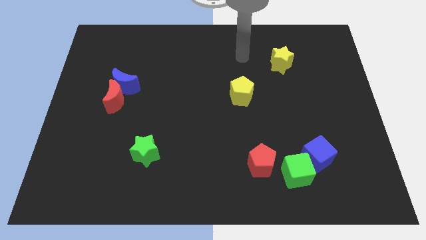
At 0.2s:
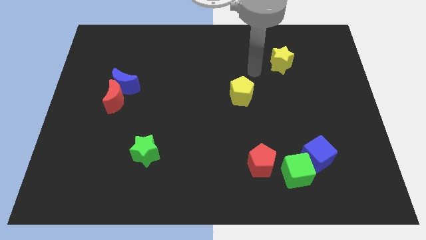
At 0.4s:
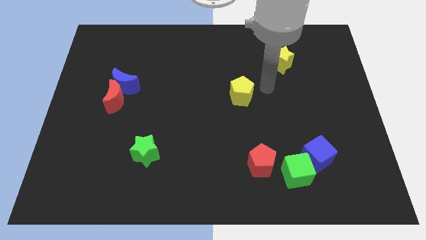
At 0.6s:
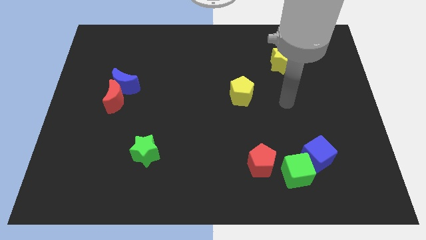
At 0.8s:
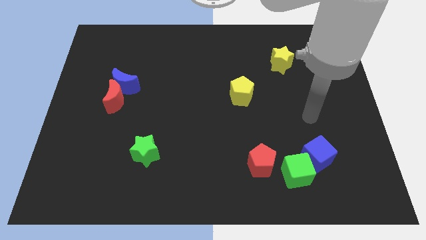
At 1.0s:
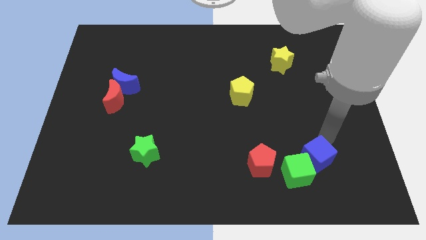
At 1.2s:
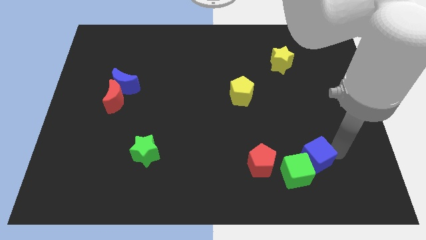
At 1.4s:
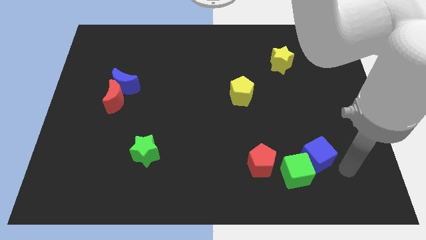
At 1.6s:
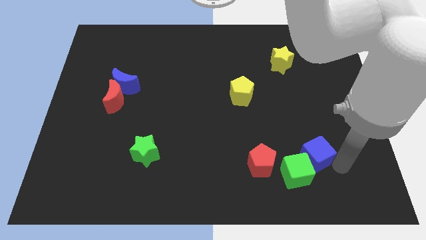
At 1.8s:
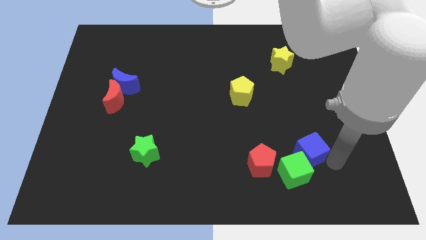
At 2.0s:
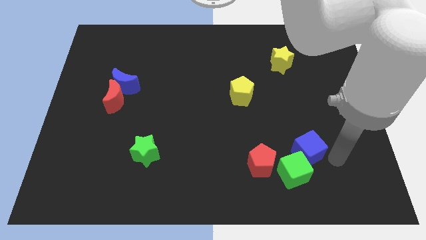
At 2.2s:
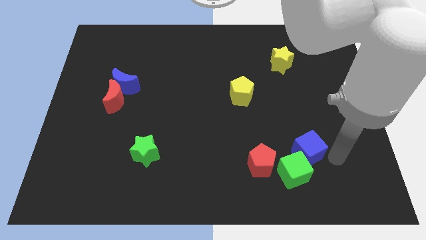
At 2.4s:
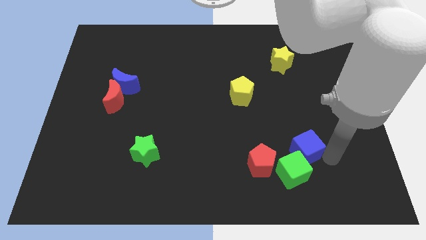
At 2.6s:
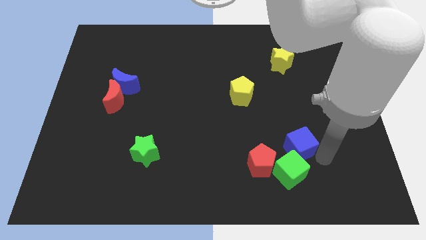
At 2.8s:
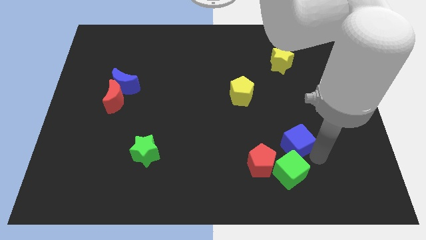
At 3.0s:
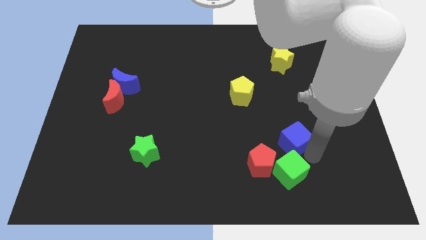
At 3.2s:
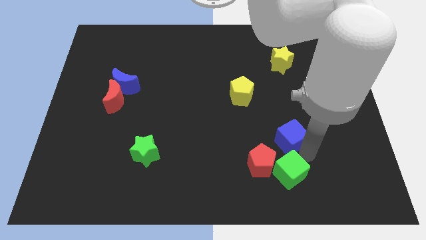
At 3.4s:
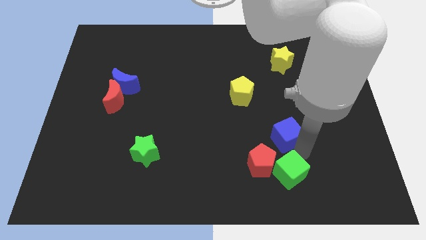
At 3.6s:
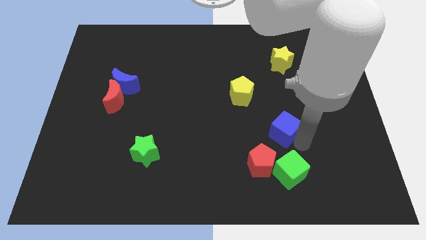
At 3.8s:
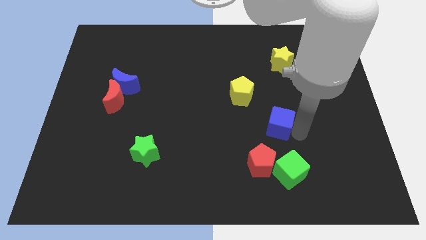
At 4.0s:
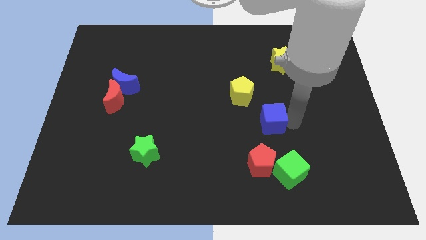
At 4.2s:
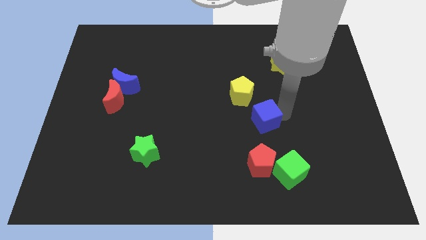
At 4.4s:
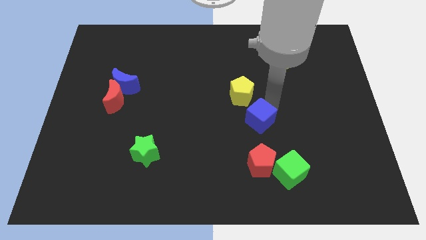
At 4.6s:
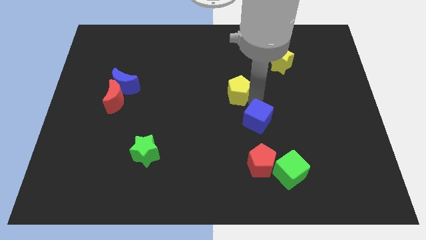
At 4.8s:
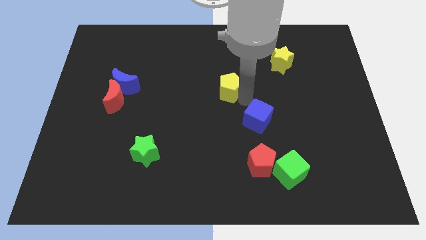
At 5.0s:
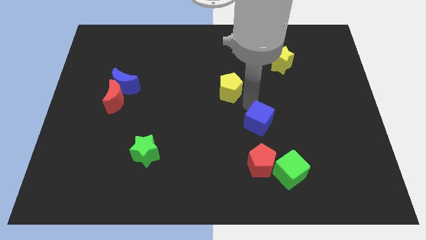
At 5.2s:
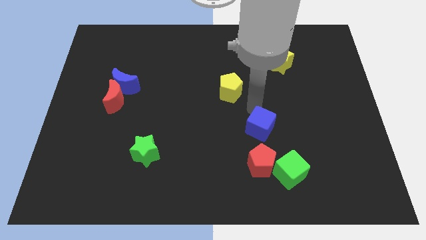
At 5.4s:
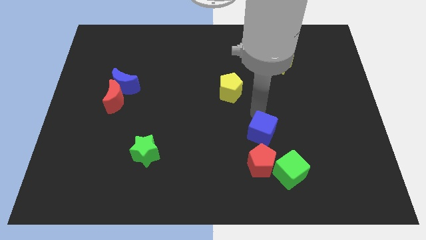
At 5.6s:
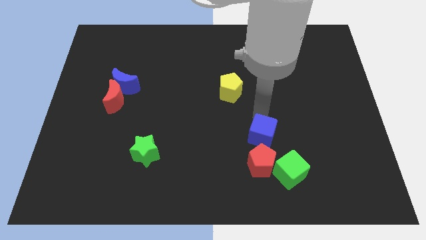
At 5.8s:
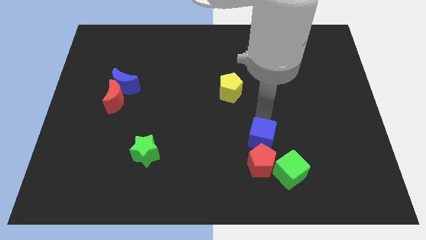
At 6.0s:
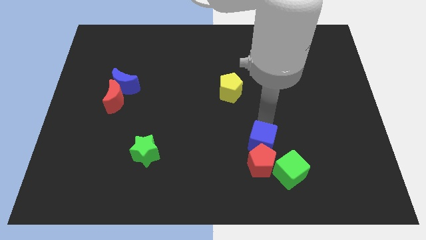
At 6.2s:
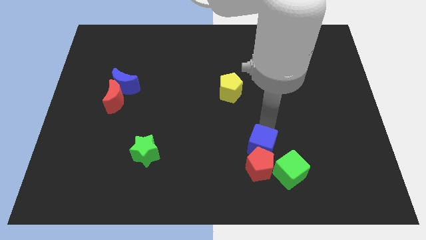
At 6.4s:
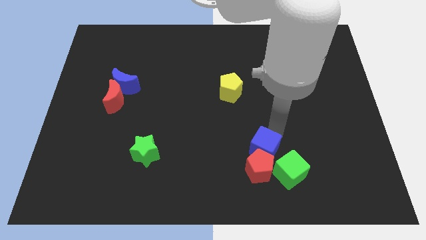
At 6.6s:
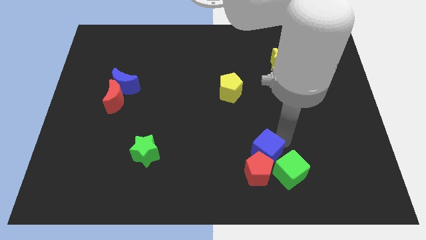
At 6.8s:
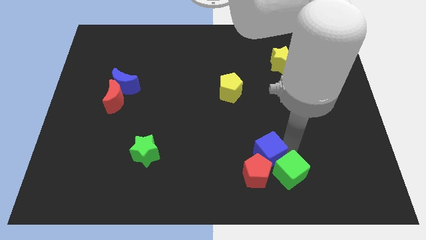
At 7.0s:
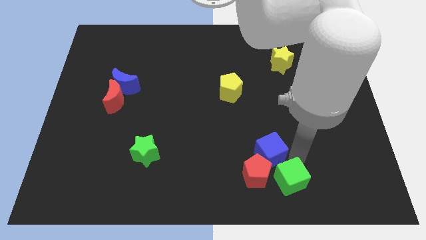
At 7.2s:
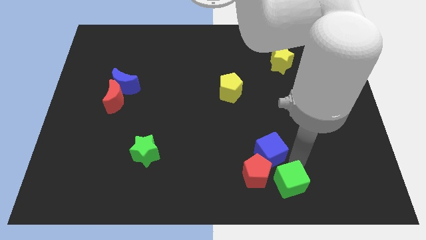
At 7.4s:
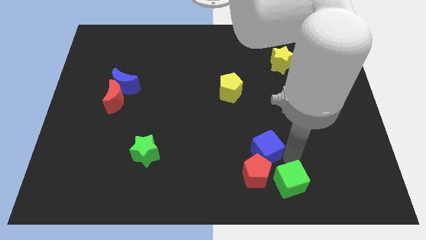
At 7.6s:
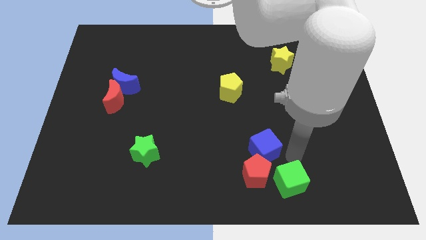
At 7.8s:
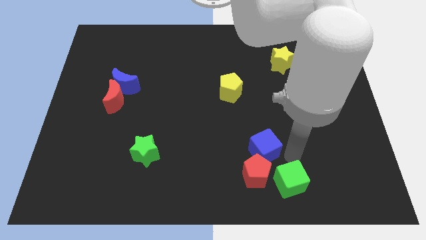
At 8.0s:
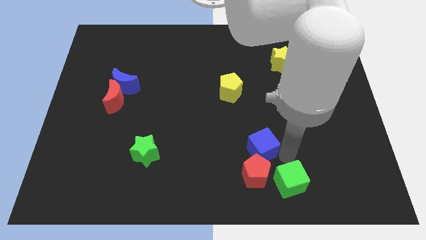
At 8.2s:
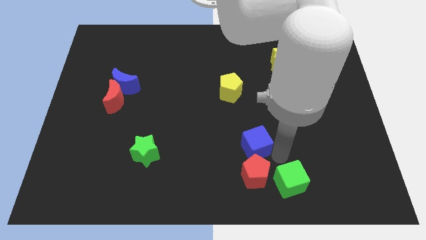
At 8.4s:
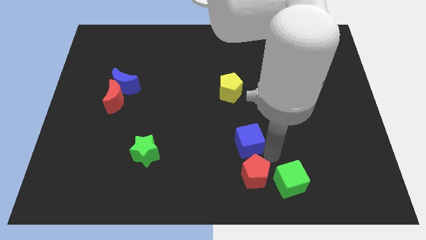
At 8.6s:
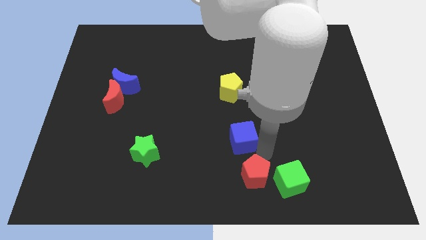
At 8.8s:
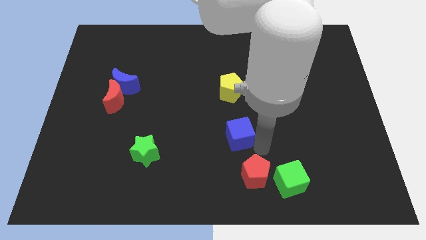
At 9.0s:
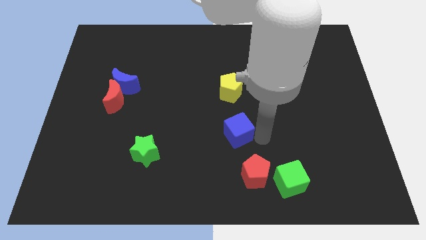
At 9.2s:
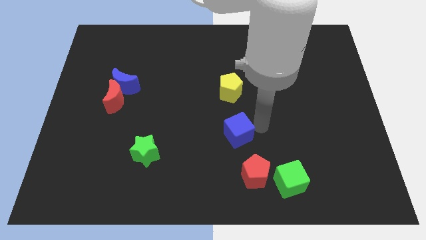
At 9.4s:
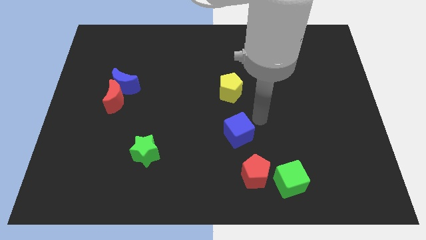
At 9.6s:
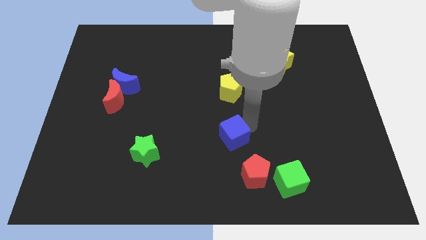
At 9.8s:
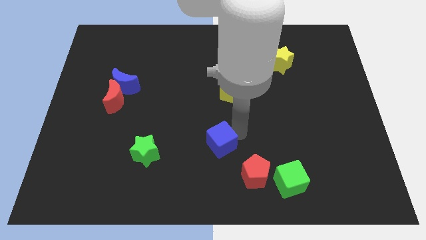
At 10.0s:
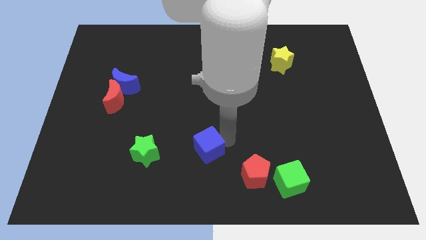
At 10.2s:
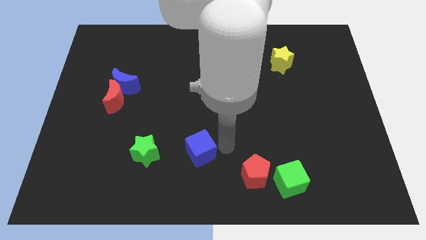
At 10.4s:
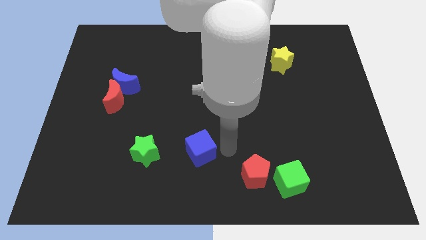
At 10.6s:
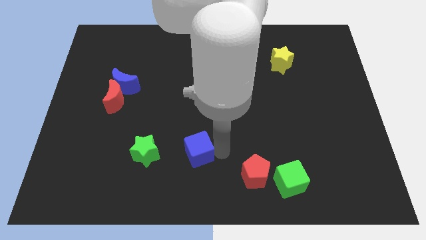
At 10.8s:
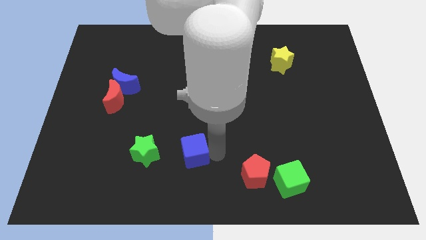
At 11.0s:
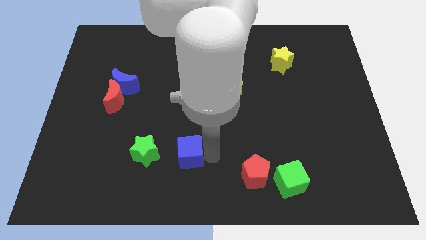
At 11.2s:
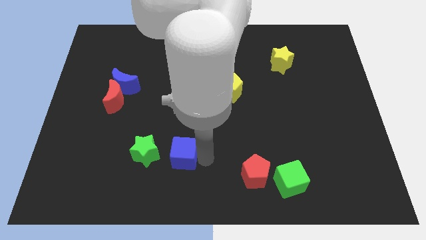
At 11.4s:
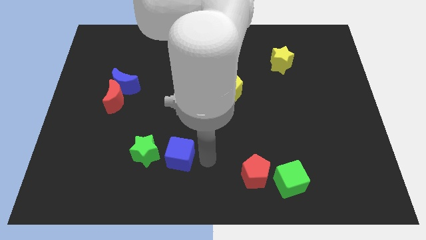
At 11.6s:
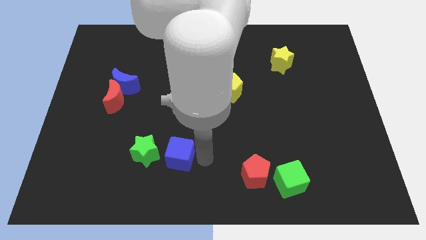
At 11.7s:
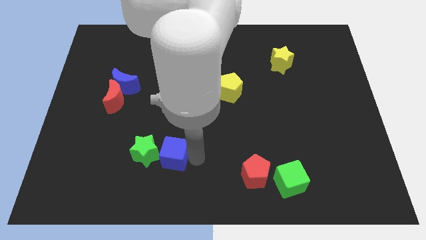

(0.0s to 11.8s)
push the blue cube towards the green star

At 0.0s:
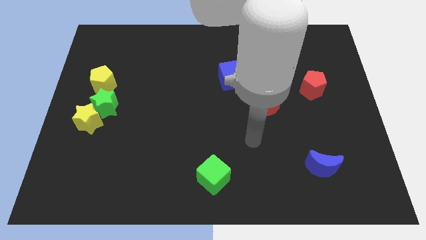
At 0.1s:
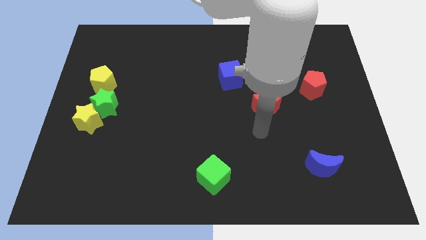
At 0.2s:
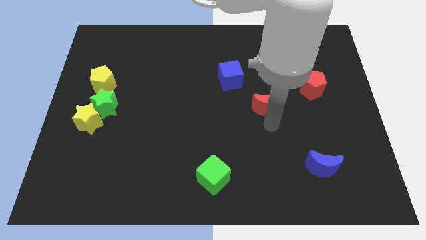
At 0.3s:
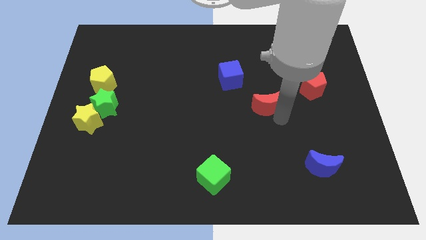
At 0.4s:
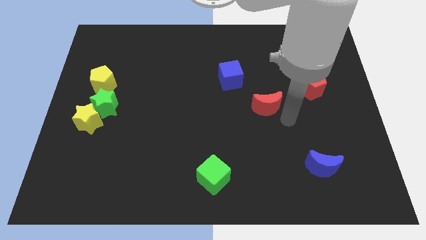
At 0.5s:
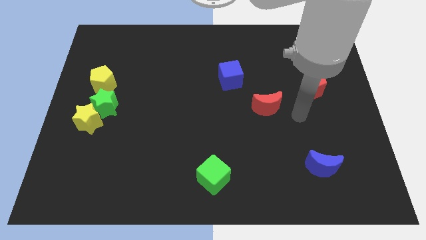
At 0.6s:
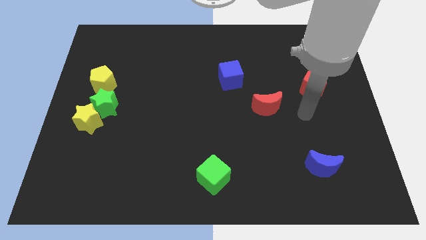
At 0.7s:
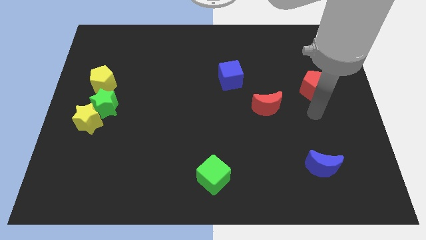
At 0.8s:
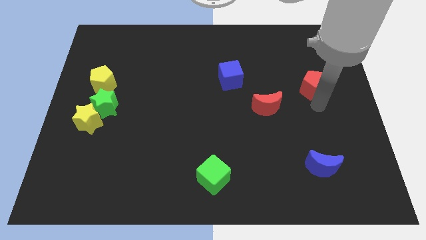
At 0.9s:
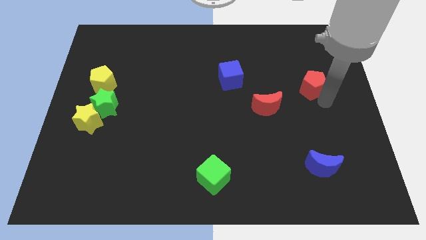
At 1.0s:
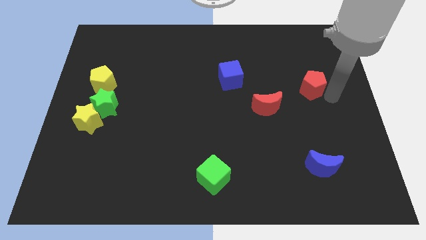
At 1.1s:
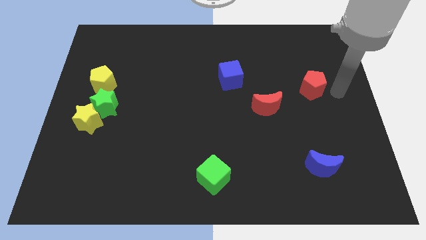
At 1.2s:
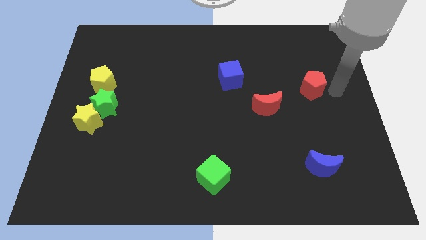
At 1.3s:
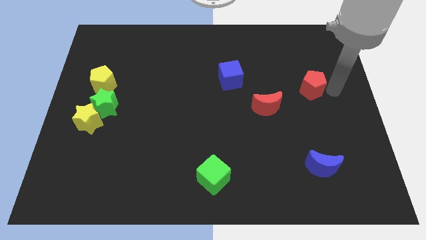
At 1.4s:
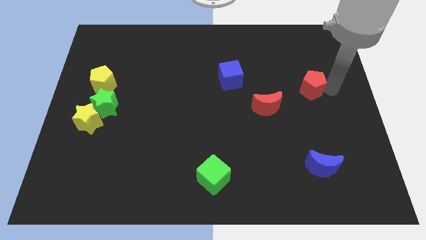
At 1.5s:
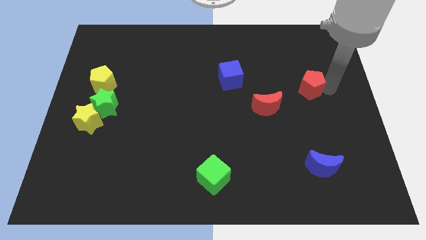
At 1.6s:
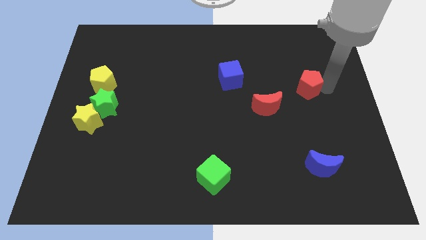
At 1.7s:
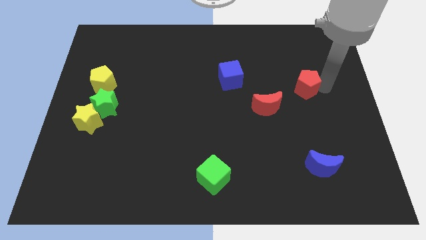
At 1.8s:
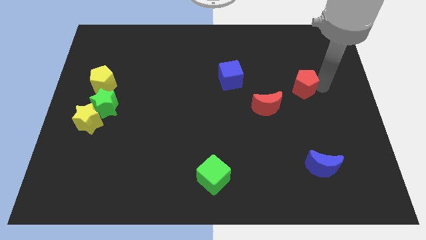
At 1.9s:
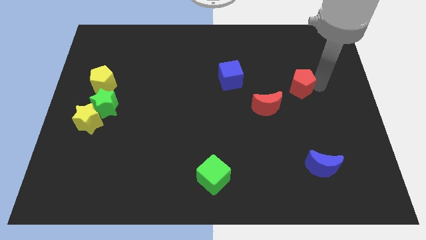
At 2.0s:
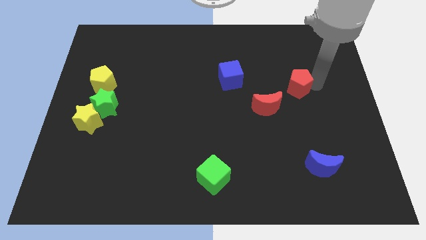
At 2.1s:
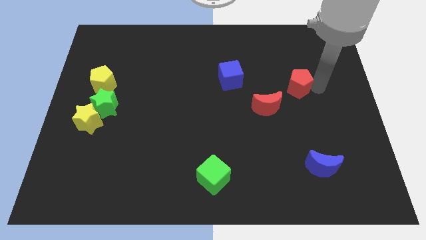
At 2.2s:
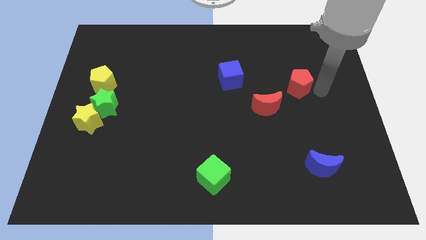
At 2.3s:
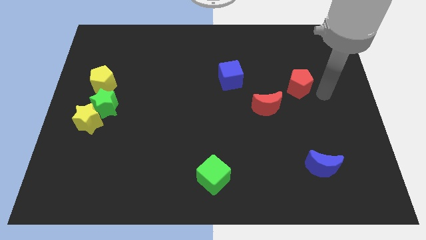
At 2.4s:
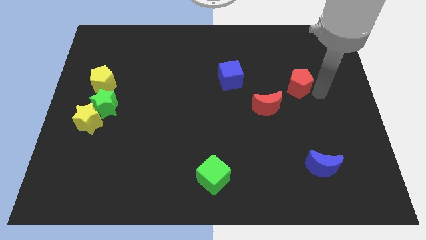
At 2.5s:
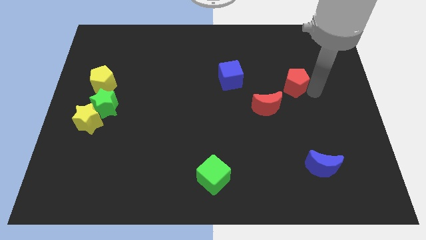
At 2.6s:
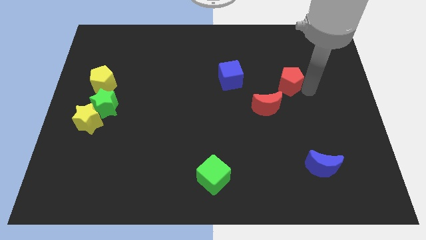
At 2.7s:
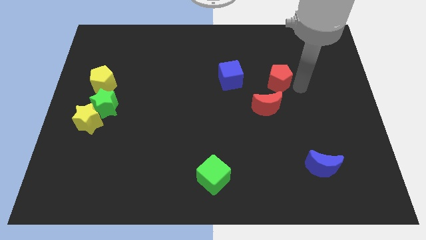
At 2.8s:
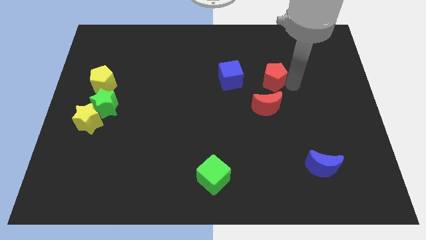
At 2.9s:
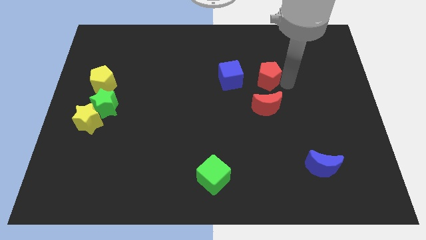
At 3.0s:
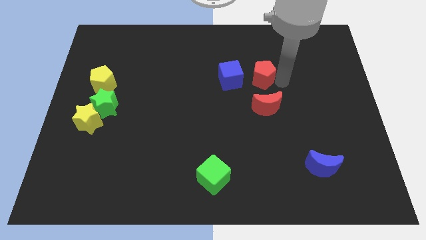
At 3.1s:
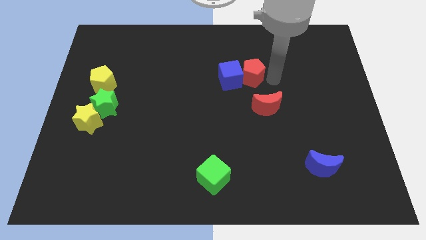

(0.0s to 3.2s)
put the red pentagon close to the blue cube
